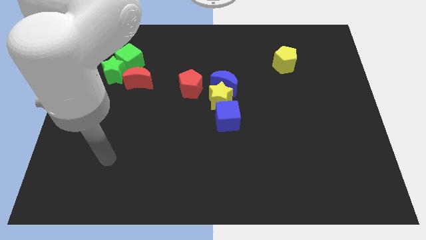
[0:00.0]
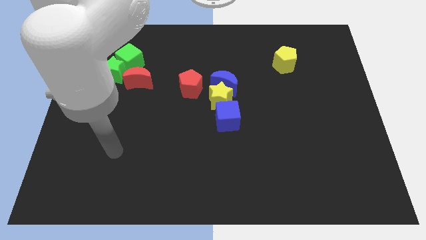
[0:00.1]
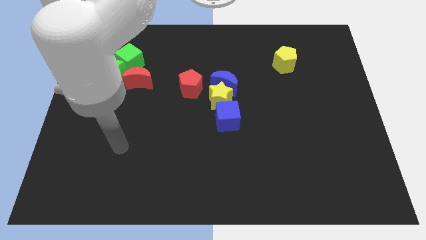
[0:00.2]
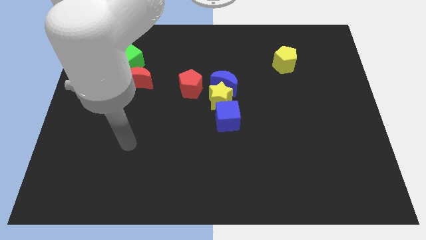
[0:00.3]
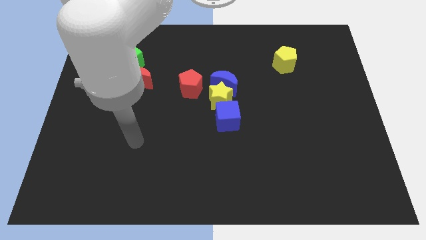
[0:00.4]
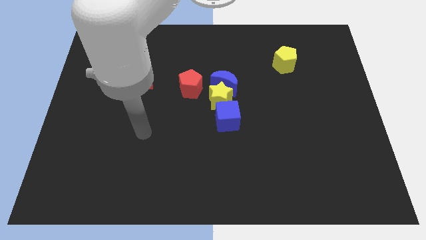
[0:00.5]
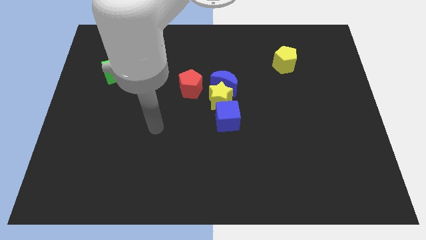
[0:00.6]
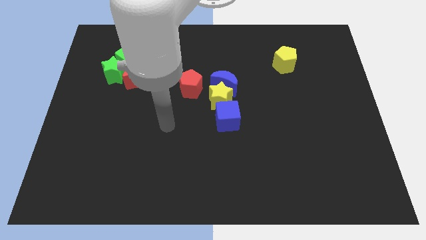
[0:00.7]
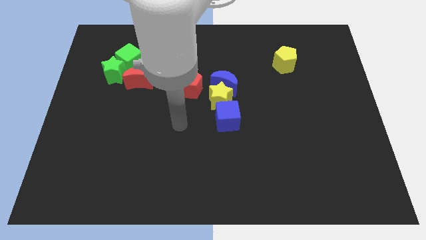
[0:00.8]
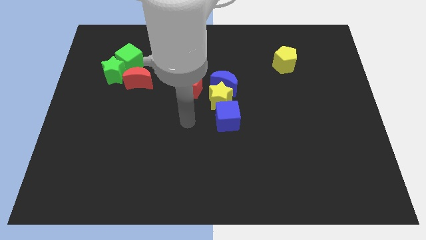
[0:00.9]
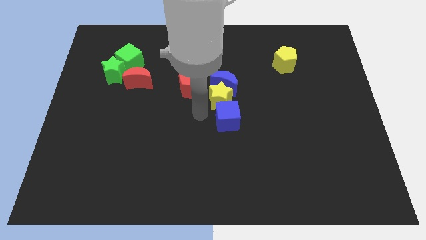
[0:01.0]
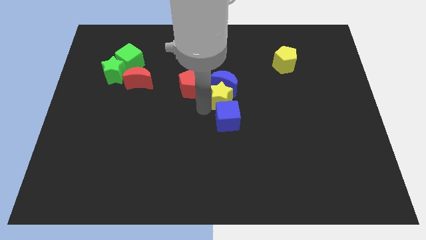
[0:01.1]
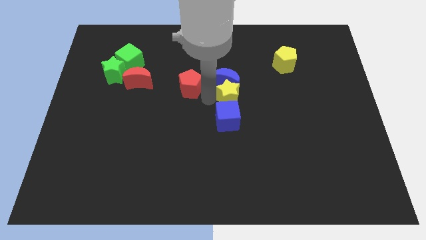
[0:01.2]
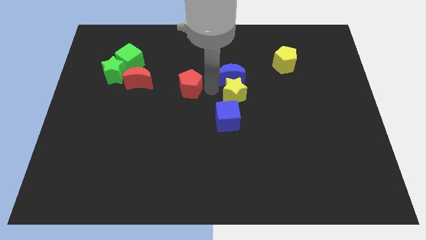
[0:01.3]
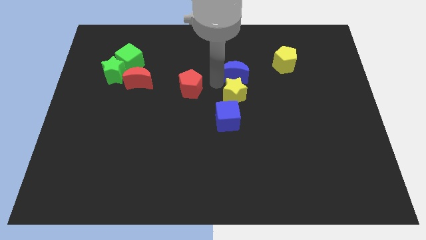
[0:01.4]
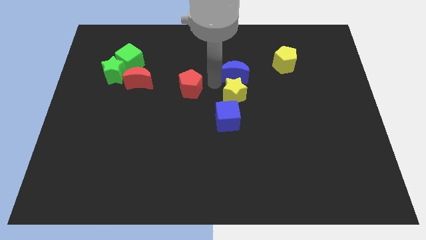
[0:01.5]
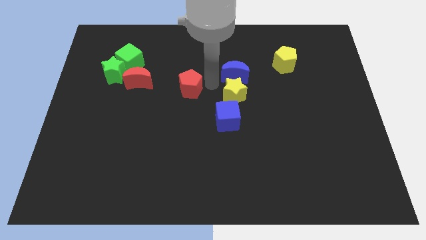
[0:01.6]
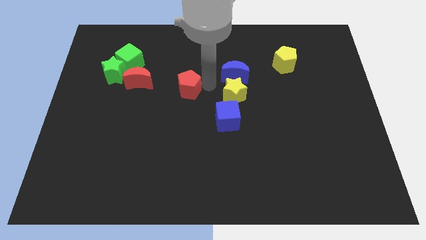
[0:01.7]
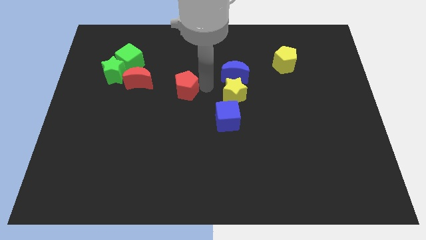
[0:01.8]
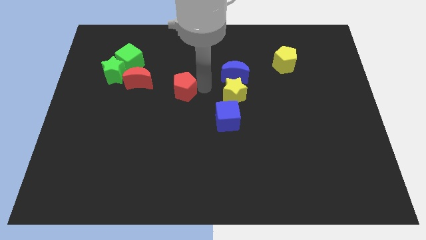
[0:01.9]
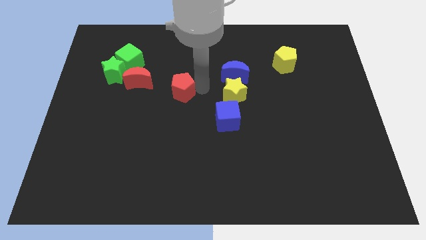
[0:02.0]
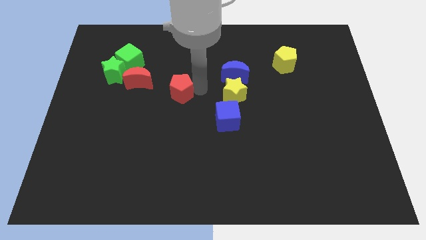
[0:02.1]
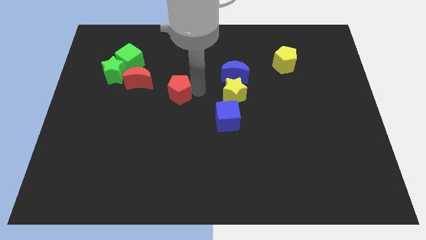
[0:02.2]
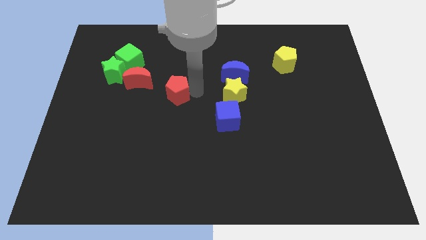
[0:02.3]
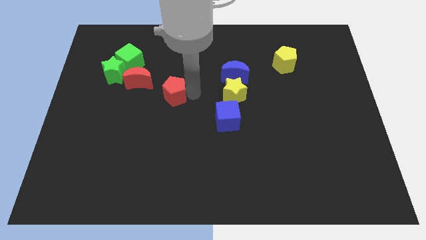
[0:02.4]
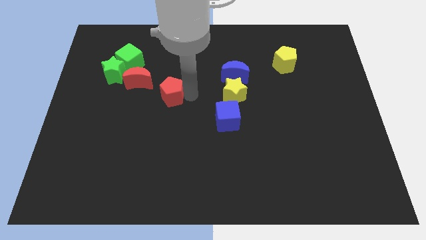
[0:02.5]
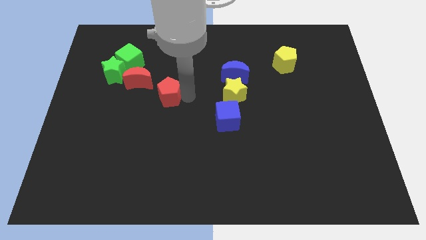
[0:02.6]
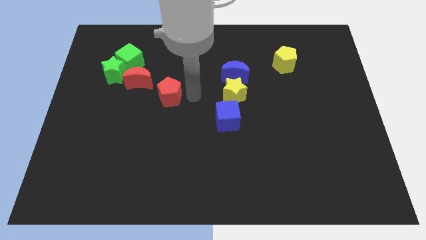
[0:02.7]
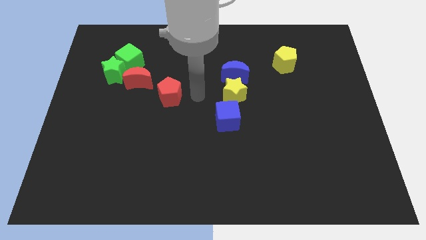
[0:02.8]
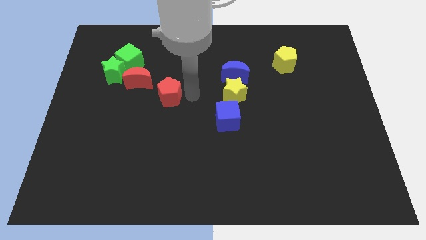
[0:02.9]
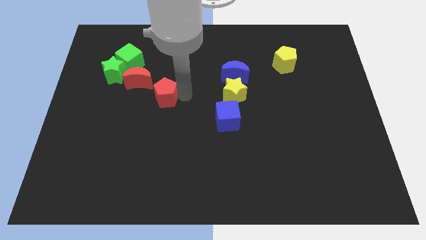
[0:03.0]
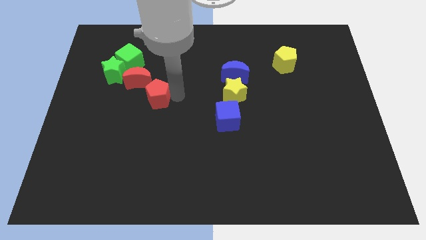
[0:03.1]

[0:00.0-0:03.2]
push the red pentagon a bit to the left

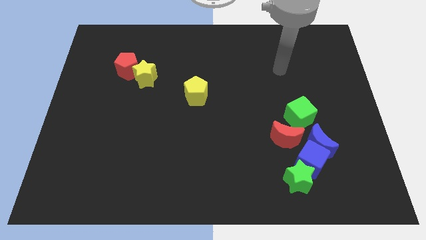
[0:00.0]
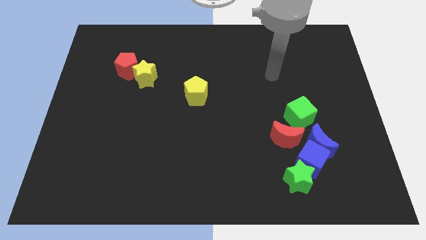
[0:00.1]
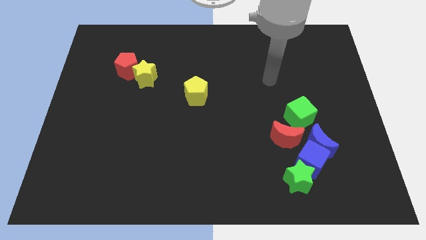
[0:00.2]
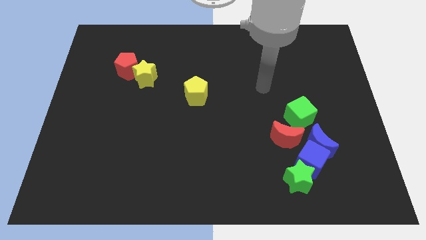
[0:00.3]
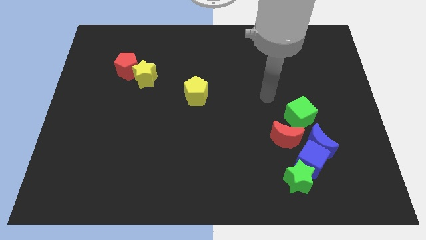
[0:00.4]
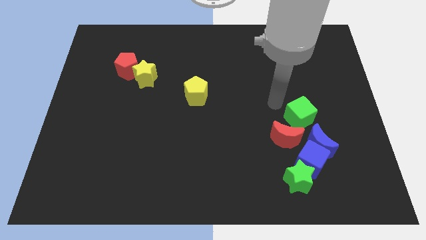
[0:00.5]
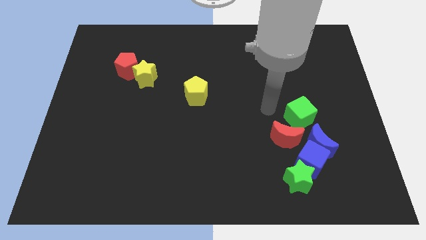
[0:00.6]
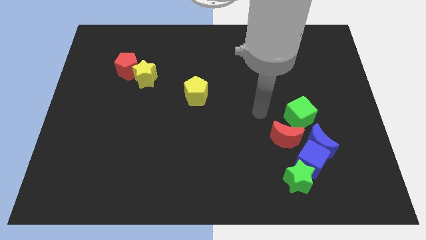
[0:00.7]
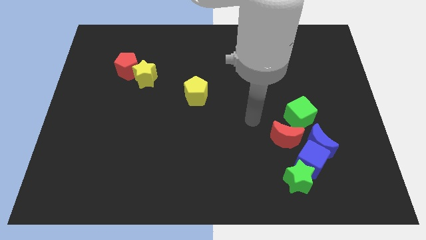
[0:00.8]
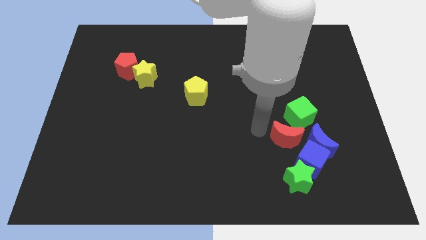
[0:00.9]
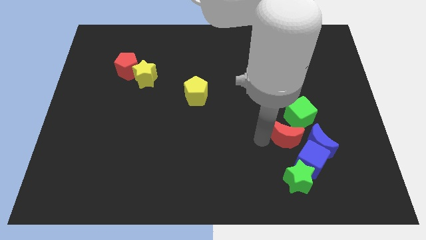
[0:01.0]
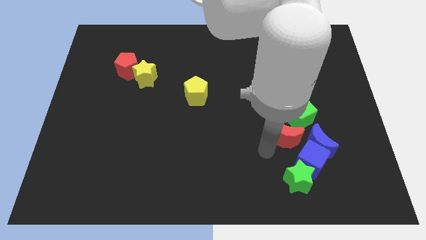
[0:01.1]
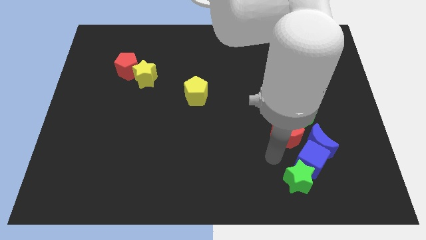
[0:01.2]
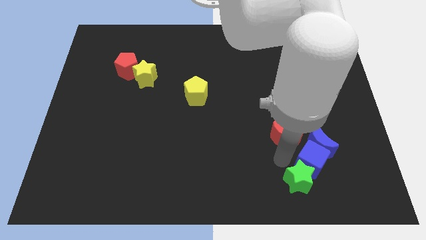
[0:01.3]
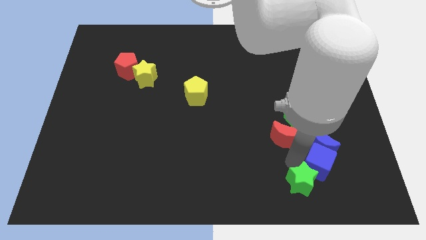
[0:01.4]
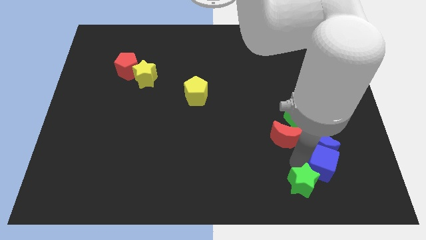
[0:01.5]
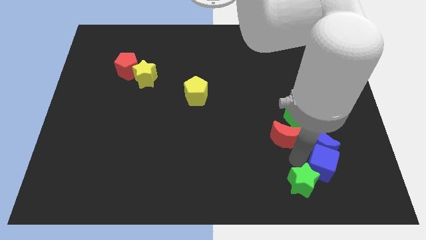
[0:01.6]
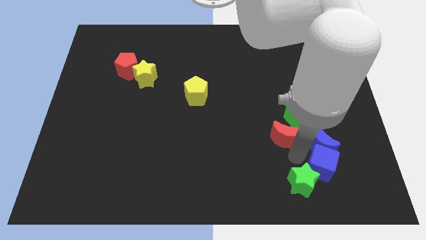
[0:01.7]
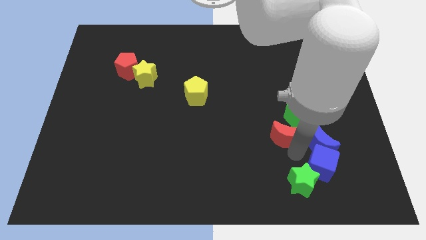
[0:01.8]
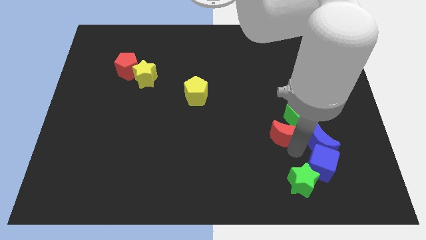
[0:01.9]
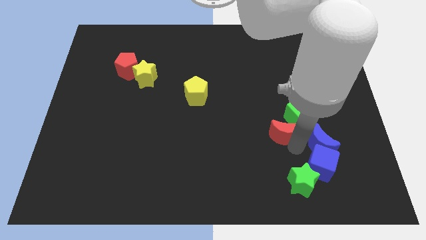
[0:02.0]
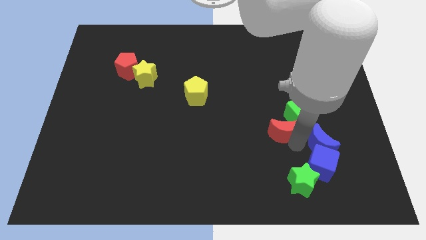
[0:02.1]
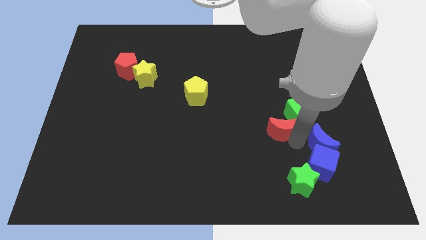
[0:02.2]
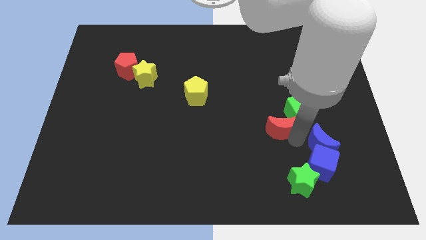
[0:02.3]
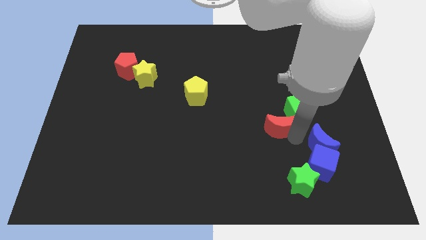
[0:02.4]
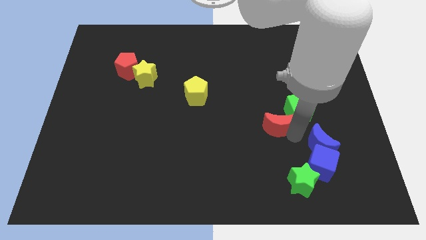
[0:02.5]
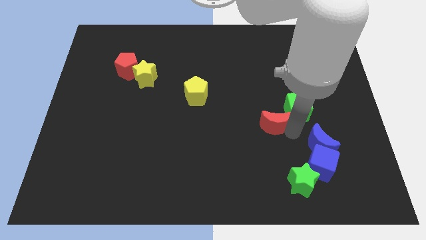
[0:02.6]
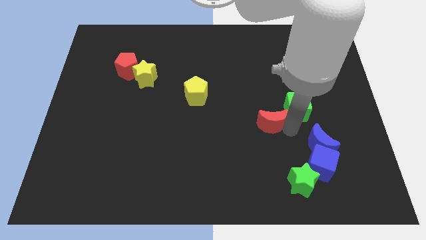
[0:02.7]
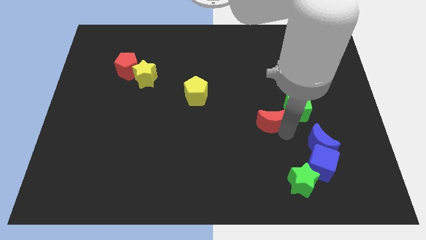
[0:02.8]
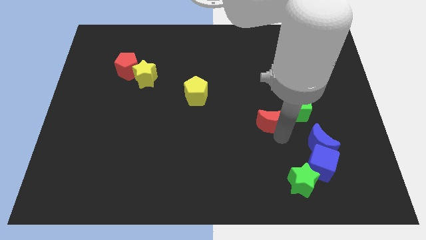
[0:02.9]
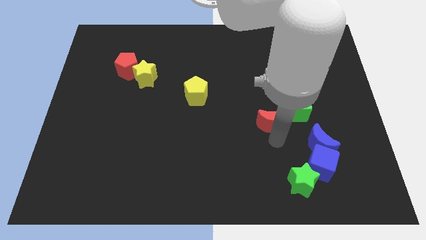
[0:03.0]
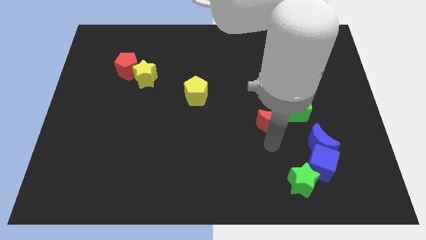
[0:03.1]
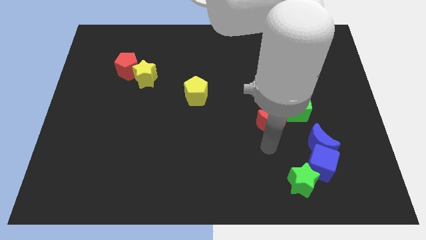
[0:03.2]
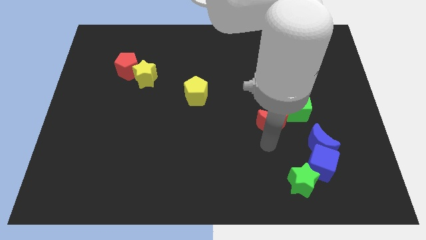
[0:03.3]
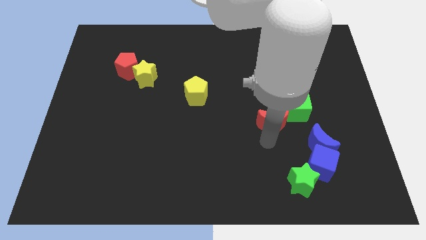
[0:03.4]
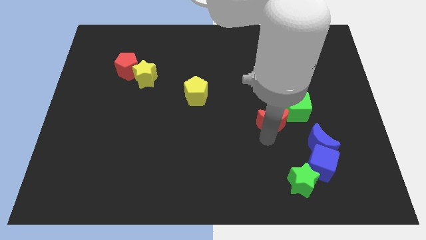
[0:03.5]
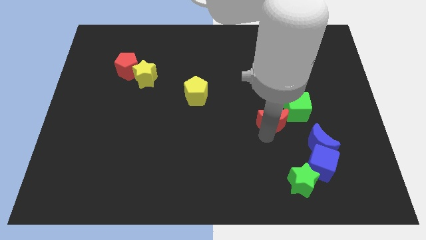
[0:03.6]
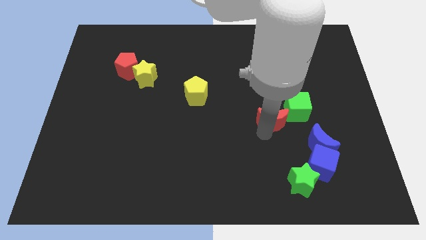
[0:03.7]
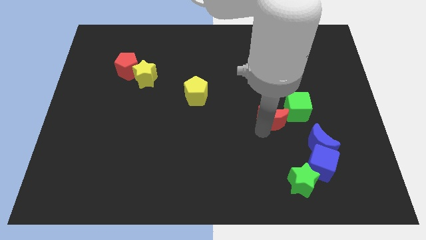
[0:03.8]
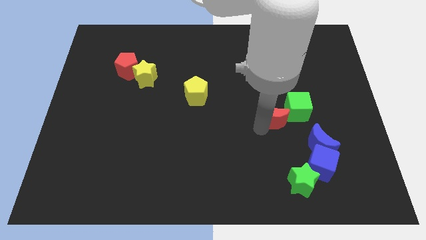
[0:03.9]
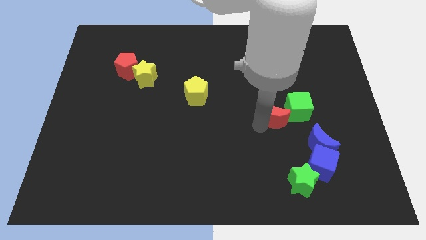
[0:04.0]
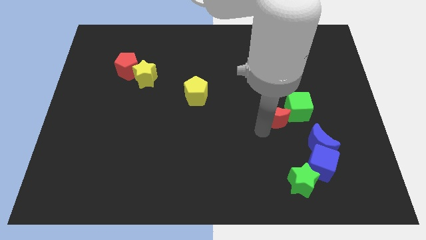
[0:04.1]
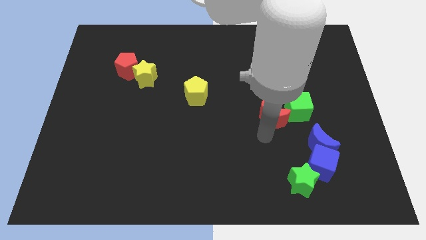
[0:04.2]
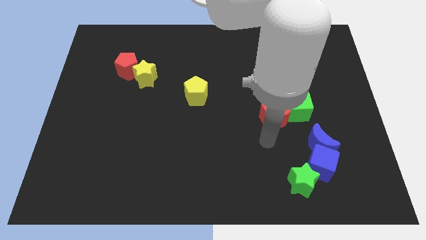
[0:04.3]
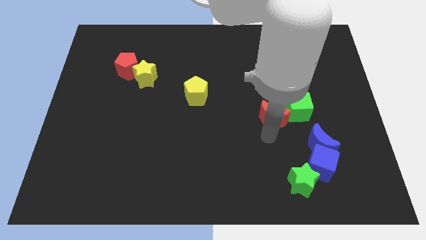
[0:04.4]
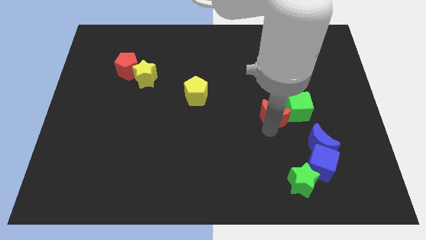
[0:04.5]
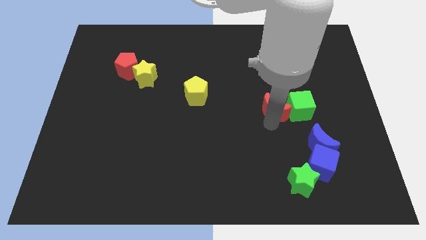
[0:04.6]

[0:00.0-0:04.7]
slide the red moon slightly upwards

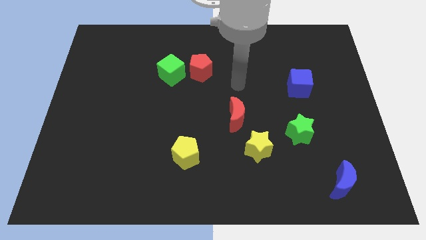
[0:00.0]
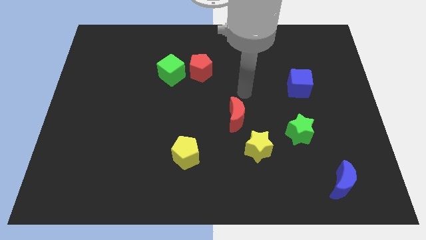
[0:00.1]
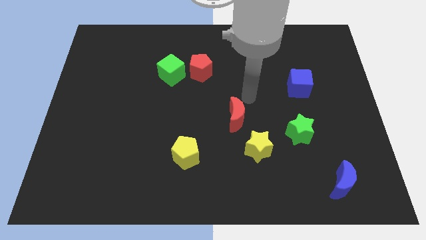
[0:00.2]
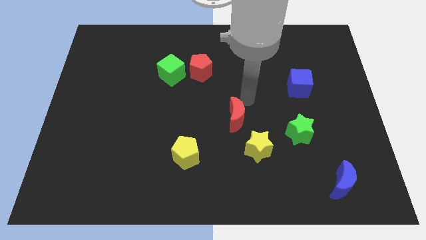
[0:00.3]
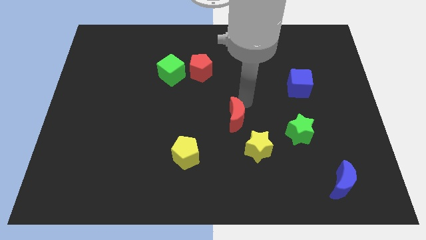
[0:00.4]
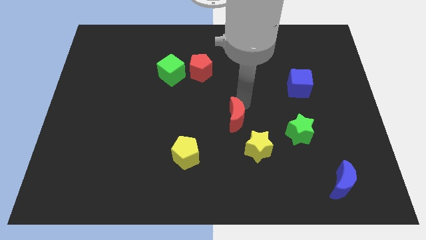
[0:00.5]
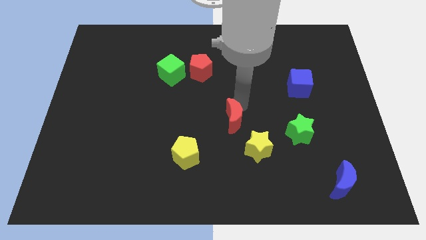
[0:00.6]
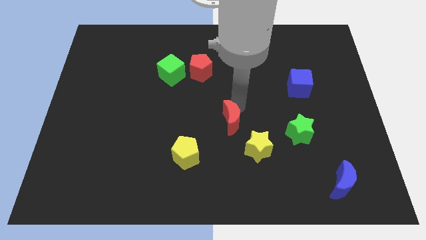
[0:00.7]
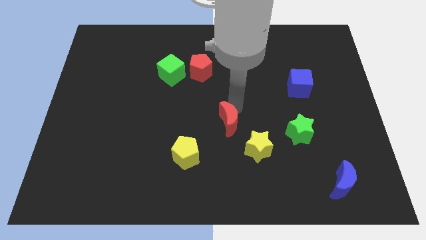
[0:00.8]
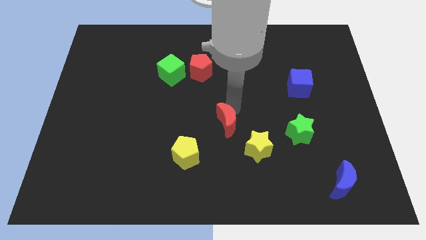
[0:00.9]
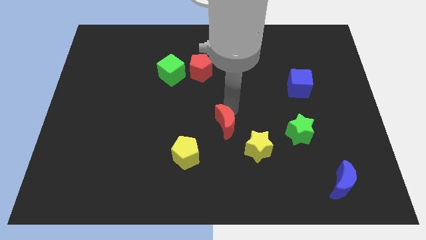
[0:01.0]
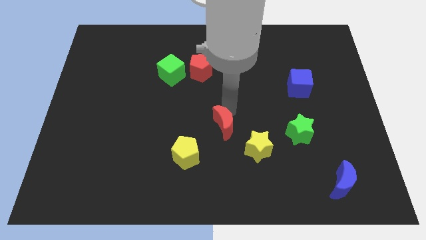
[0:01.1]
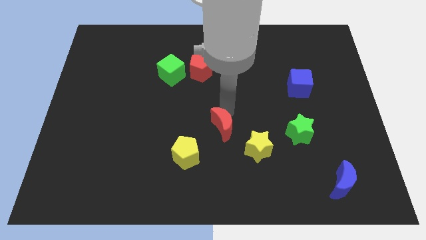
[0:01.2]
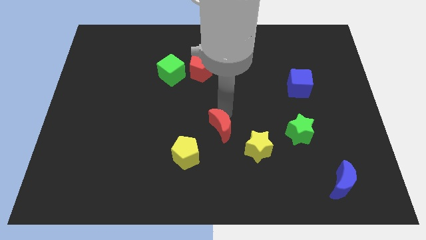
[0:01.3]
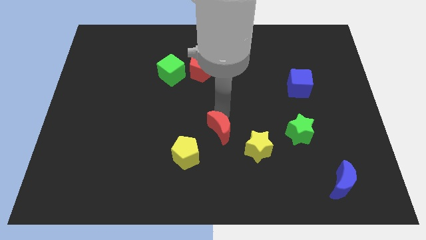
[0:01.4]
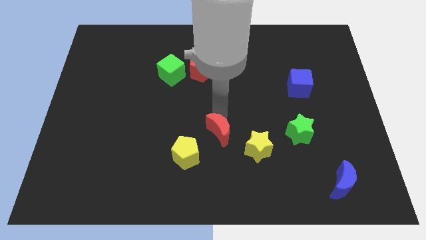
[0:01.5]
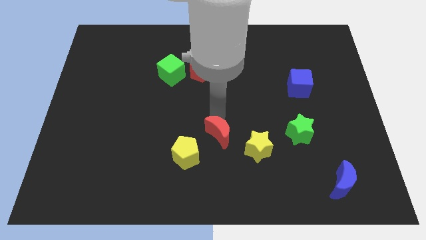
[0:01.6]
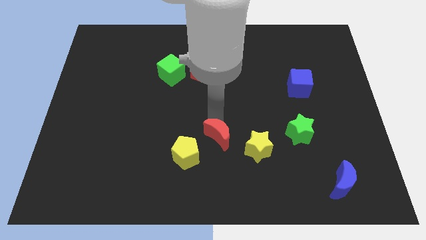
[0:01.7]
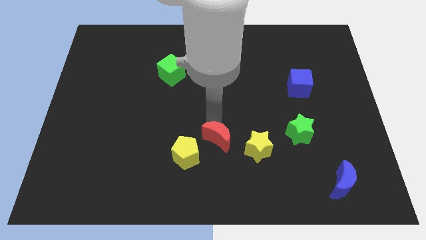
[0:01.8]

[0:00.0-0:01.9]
slightly push the red moon down and left diagonally
